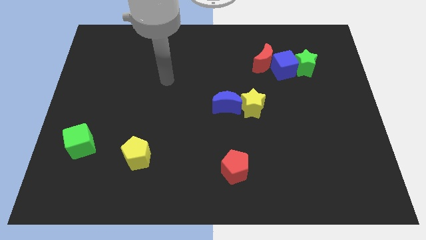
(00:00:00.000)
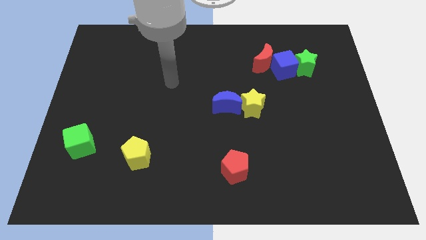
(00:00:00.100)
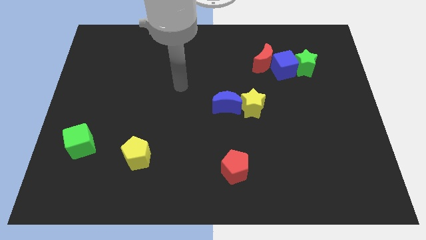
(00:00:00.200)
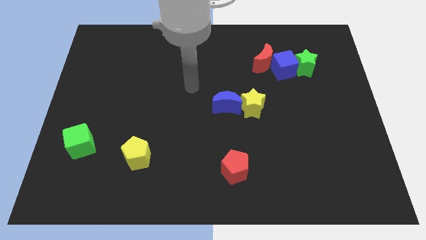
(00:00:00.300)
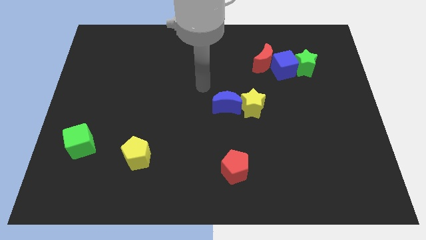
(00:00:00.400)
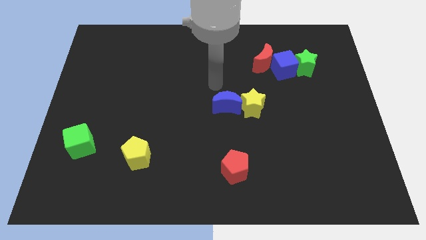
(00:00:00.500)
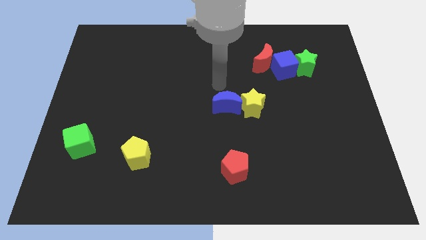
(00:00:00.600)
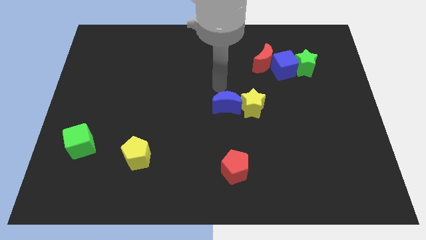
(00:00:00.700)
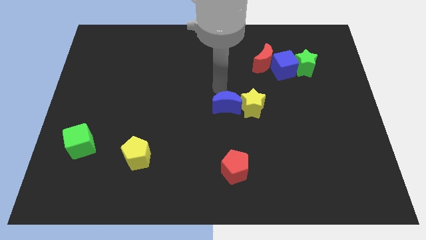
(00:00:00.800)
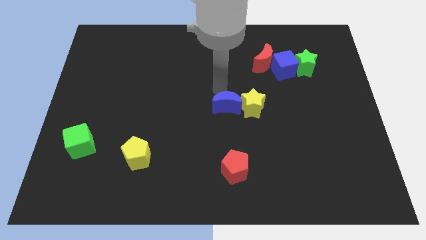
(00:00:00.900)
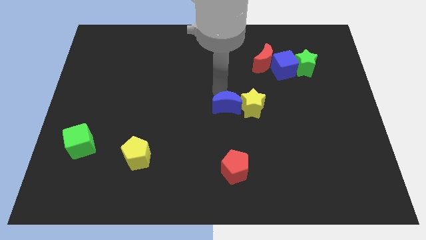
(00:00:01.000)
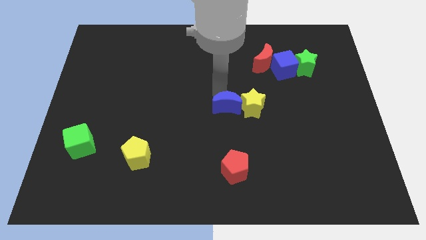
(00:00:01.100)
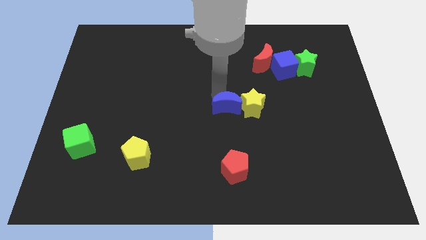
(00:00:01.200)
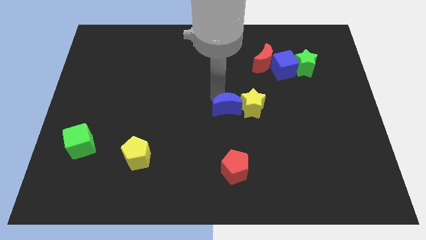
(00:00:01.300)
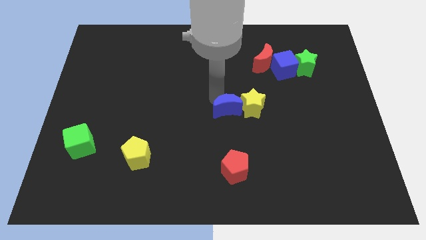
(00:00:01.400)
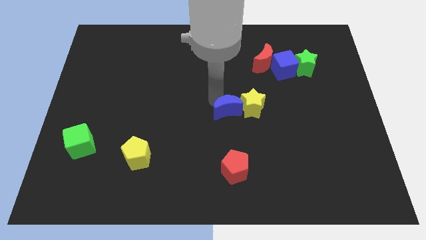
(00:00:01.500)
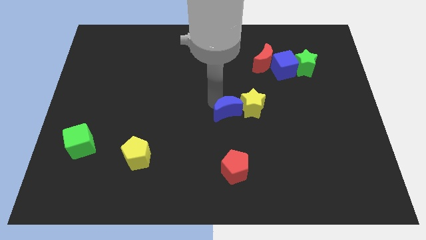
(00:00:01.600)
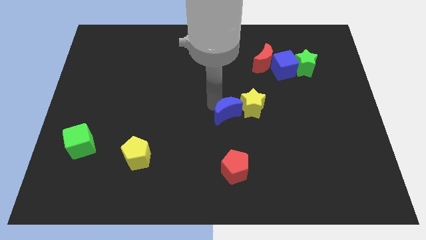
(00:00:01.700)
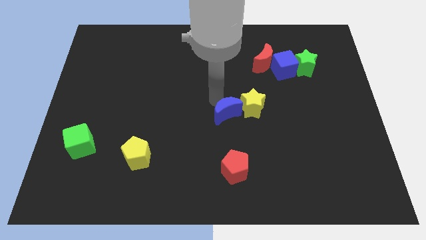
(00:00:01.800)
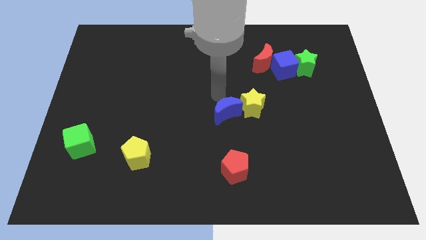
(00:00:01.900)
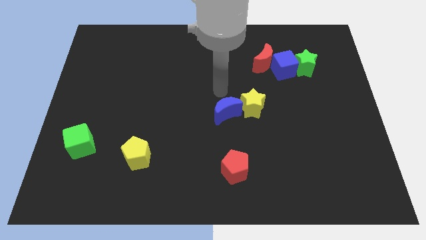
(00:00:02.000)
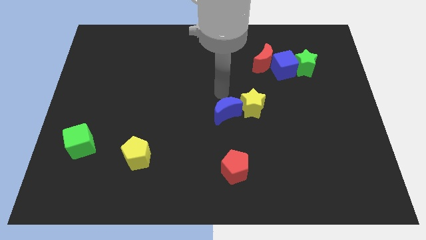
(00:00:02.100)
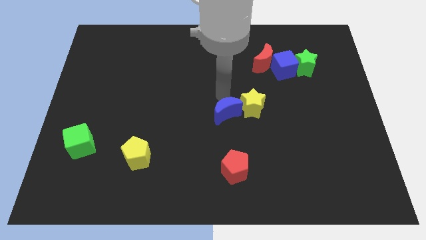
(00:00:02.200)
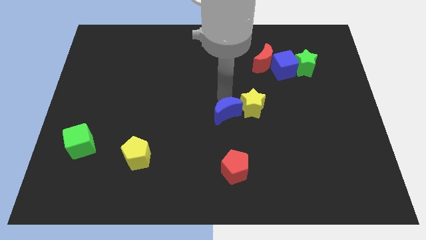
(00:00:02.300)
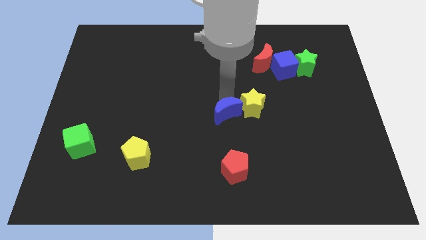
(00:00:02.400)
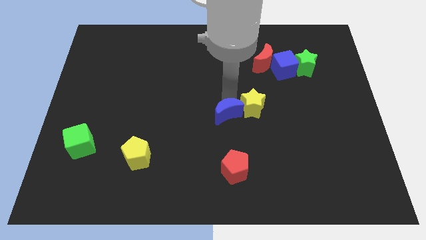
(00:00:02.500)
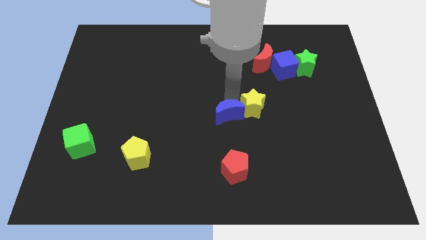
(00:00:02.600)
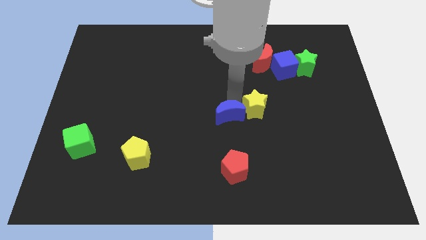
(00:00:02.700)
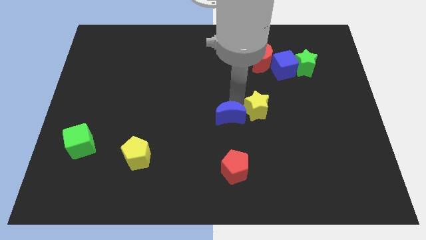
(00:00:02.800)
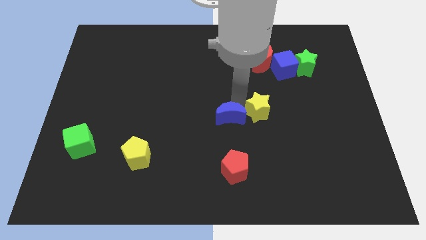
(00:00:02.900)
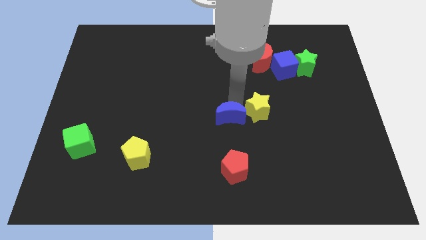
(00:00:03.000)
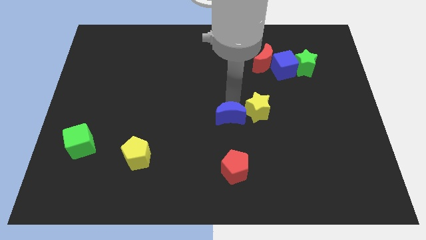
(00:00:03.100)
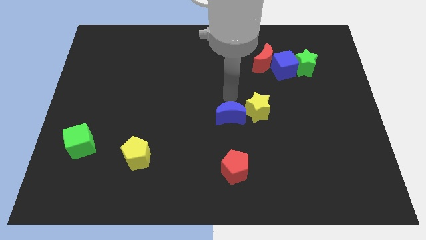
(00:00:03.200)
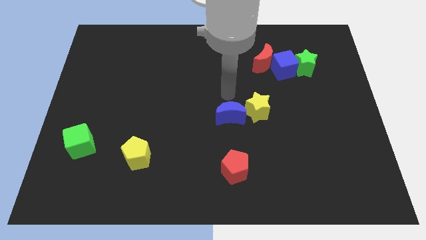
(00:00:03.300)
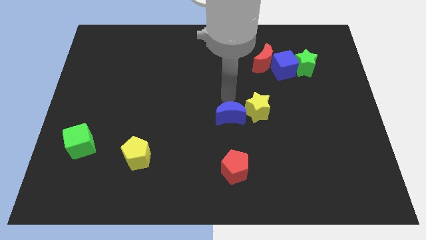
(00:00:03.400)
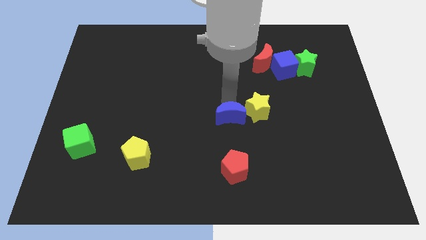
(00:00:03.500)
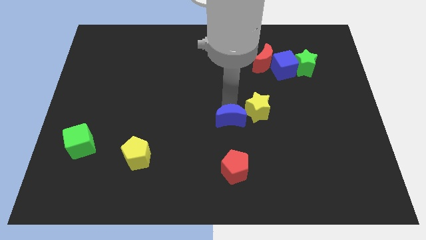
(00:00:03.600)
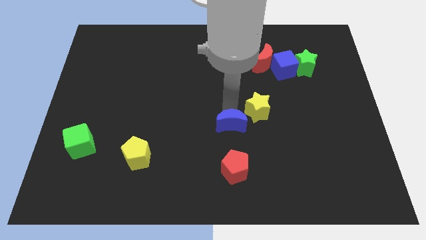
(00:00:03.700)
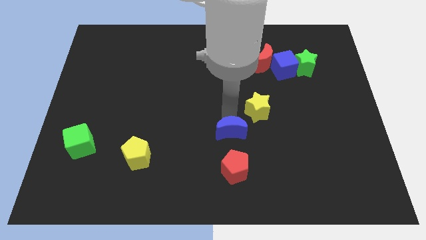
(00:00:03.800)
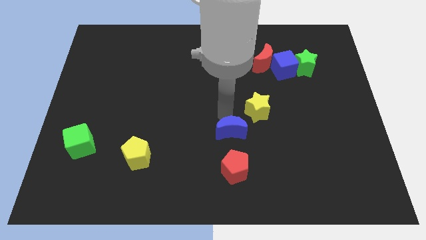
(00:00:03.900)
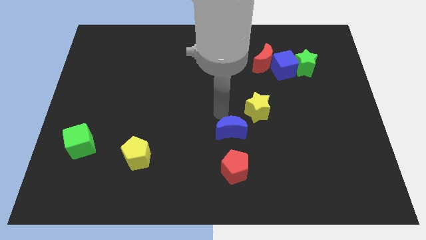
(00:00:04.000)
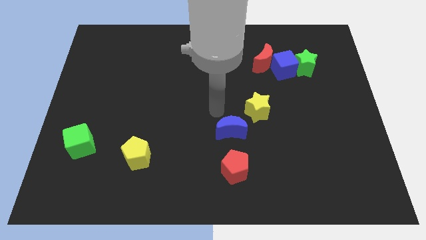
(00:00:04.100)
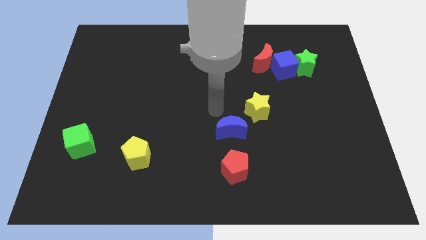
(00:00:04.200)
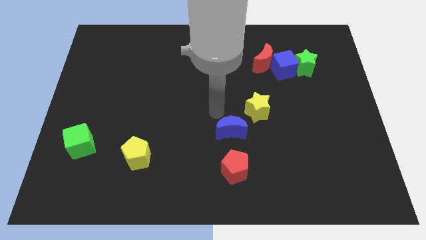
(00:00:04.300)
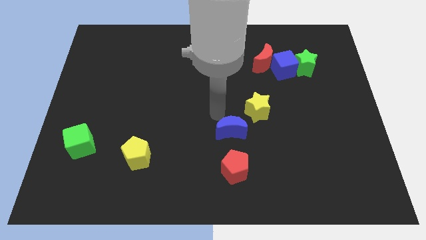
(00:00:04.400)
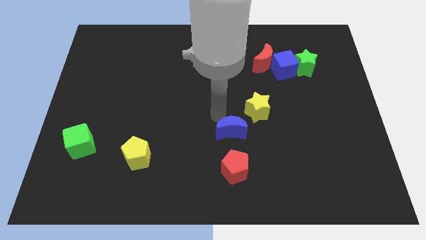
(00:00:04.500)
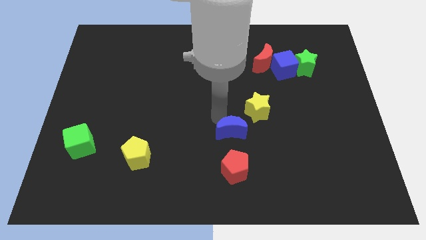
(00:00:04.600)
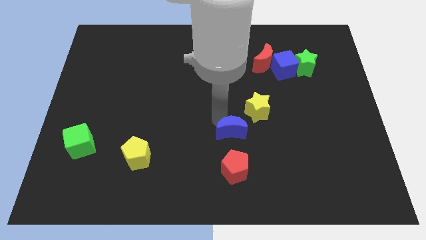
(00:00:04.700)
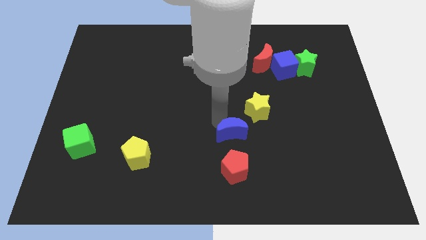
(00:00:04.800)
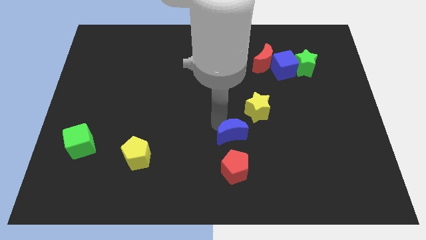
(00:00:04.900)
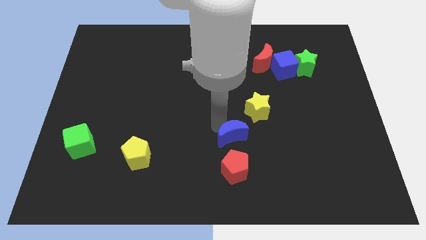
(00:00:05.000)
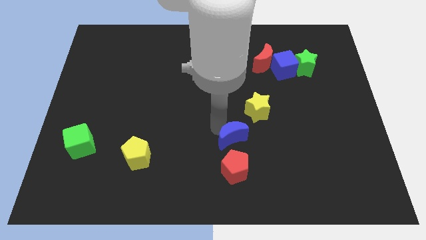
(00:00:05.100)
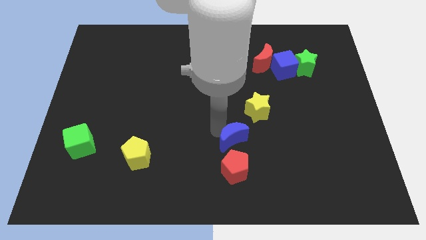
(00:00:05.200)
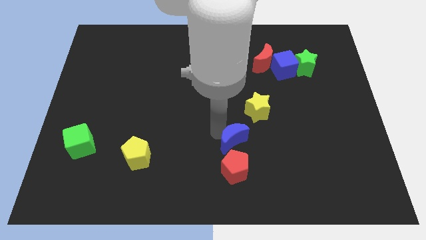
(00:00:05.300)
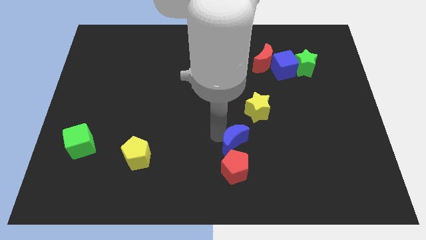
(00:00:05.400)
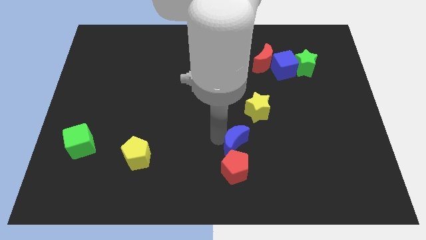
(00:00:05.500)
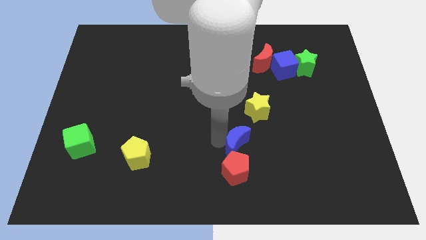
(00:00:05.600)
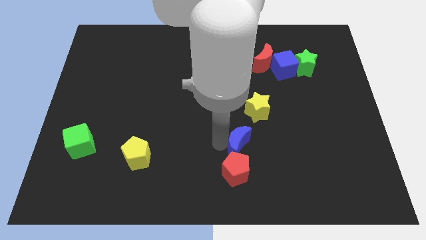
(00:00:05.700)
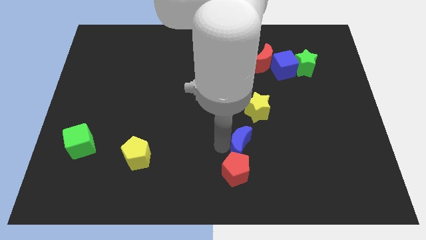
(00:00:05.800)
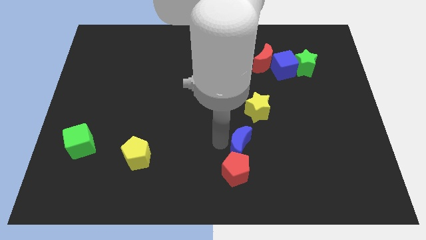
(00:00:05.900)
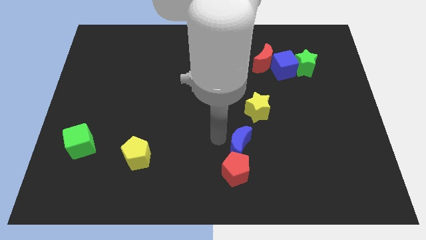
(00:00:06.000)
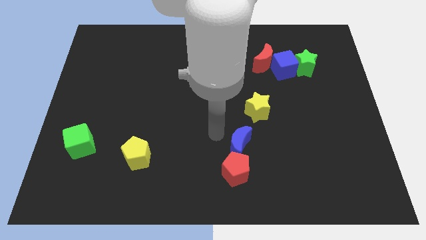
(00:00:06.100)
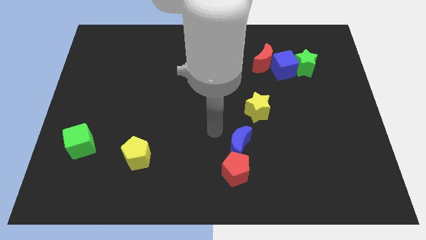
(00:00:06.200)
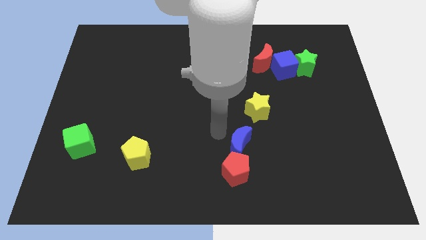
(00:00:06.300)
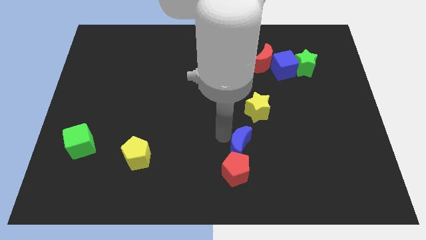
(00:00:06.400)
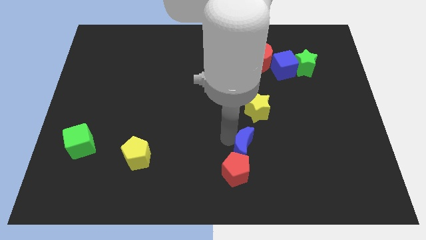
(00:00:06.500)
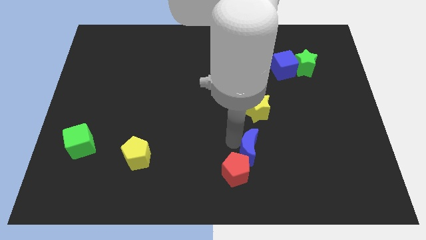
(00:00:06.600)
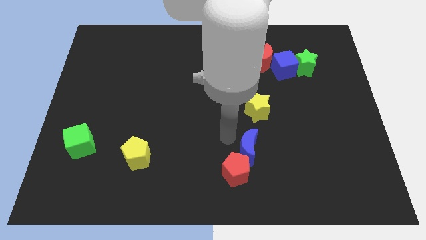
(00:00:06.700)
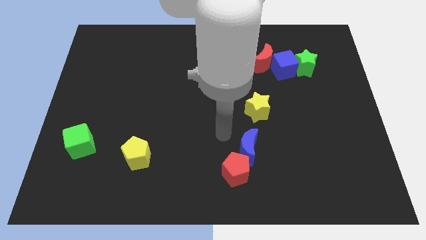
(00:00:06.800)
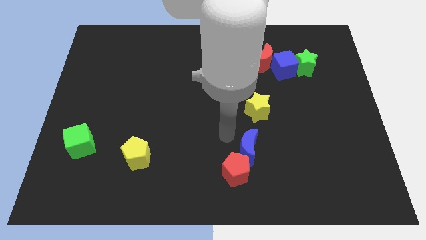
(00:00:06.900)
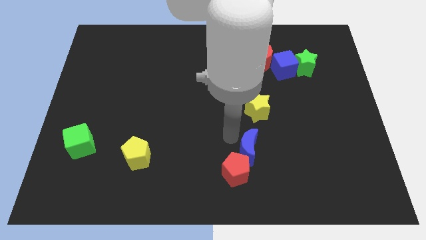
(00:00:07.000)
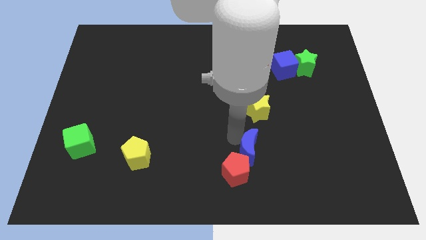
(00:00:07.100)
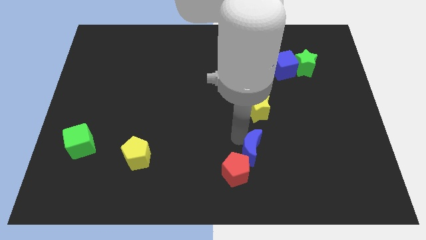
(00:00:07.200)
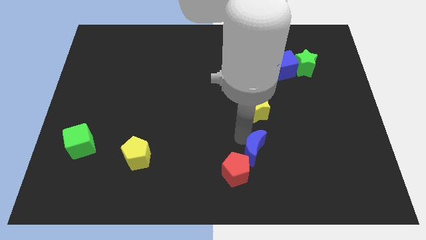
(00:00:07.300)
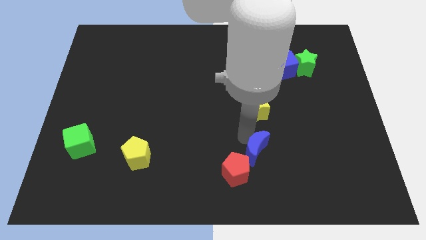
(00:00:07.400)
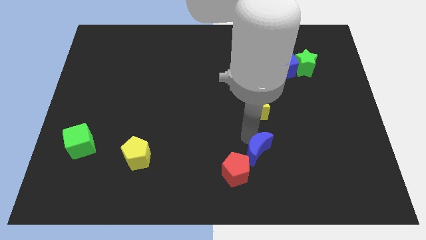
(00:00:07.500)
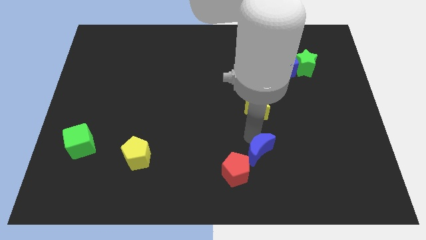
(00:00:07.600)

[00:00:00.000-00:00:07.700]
slide the blue moon right of the red pentagon
